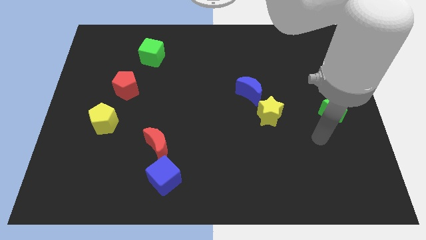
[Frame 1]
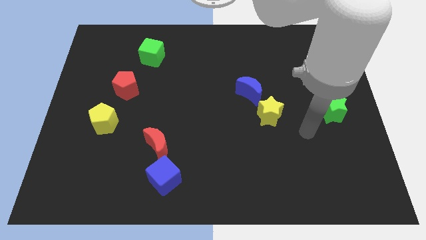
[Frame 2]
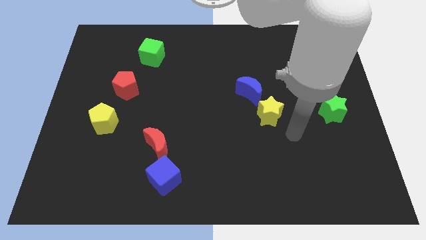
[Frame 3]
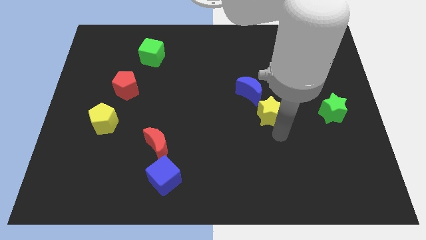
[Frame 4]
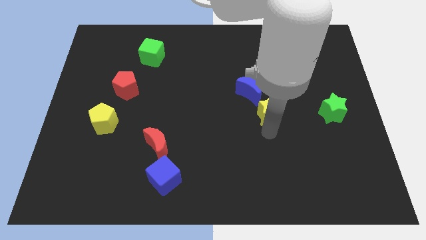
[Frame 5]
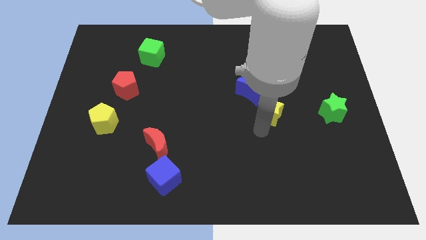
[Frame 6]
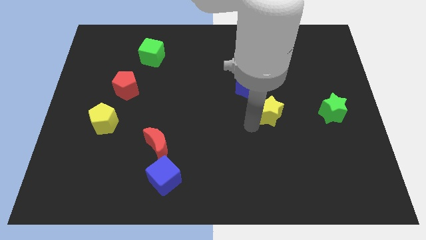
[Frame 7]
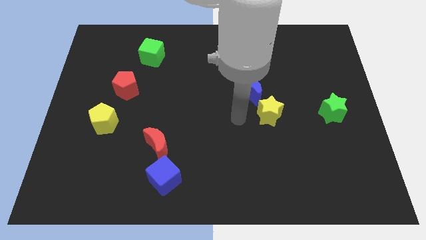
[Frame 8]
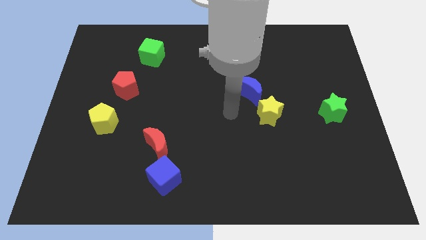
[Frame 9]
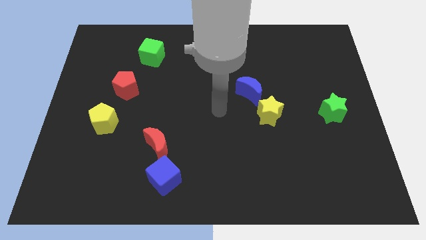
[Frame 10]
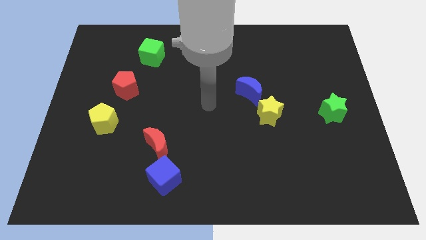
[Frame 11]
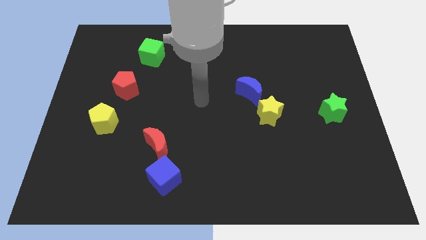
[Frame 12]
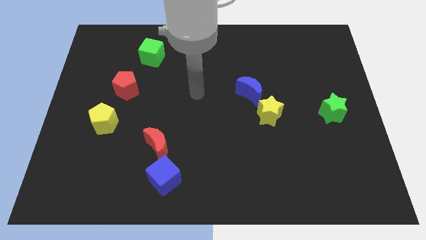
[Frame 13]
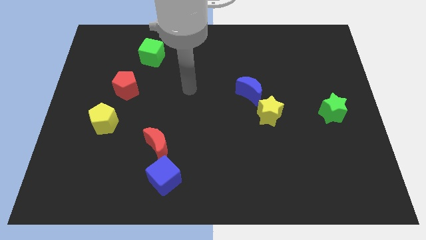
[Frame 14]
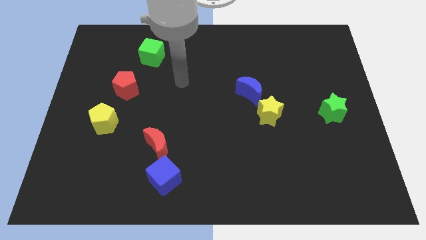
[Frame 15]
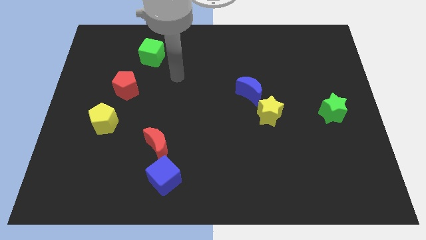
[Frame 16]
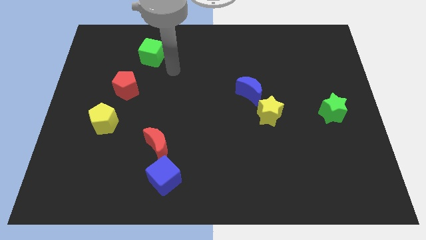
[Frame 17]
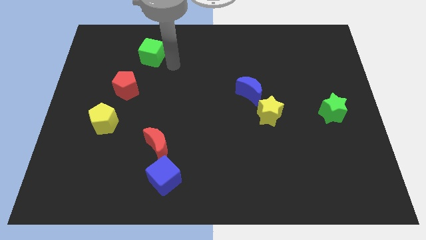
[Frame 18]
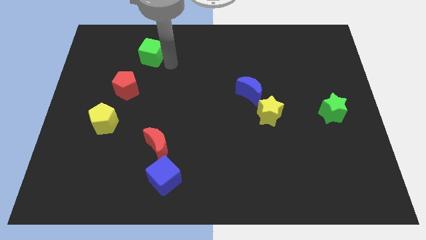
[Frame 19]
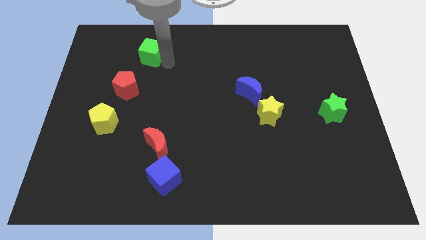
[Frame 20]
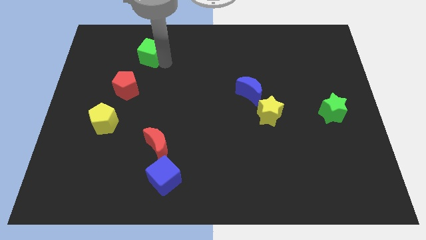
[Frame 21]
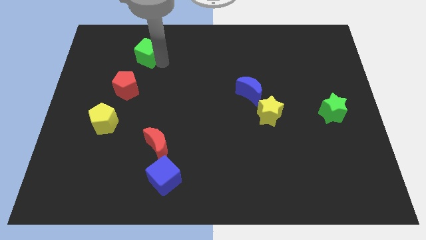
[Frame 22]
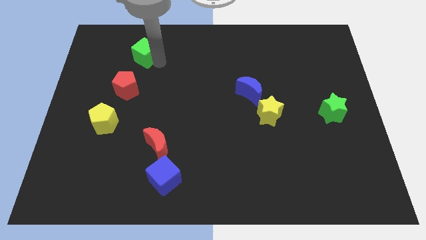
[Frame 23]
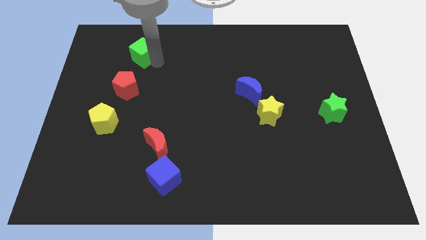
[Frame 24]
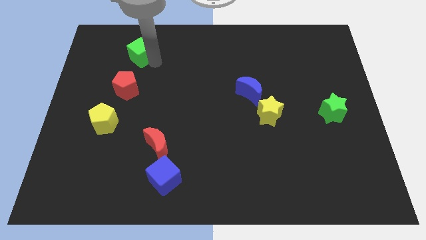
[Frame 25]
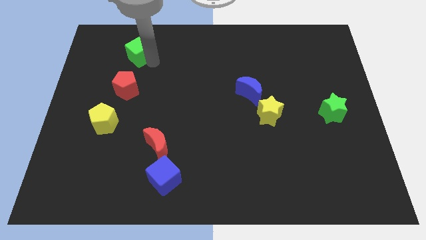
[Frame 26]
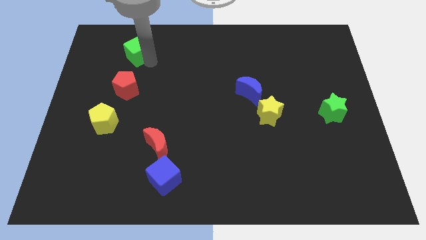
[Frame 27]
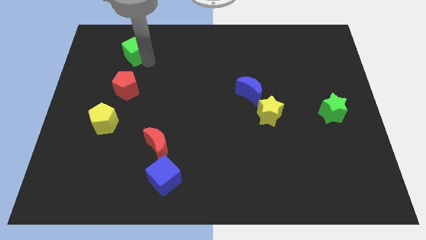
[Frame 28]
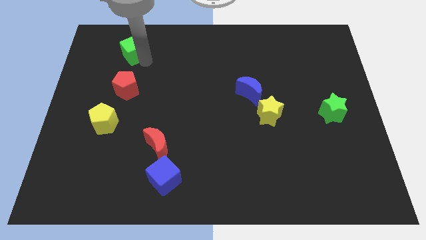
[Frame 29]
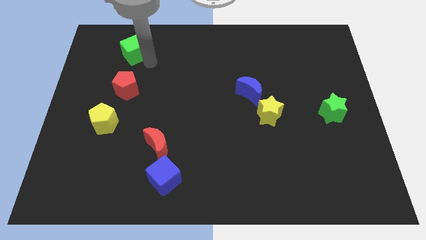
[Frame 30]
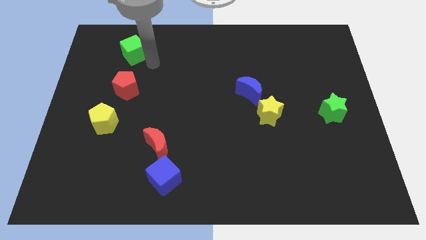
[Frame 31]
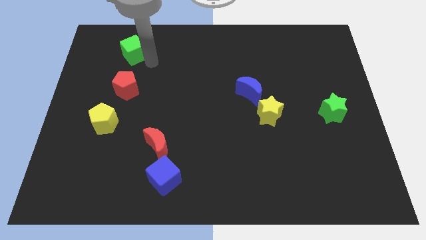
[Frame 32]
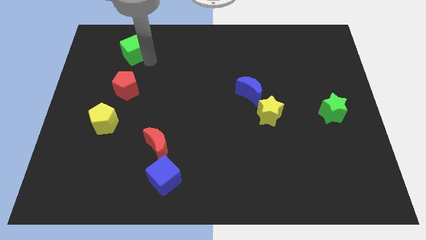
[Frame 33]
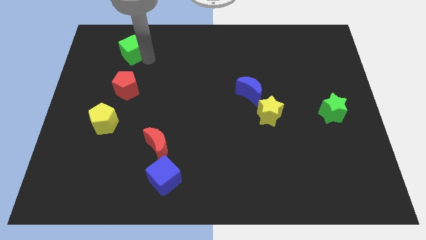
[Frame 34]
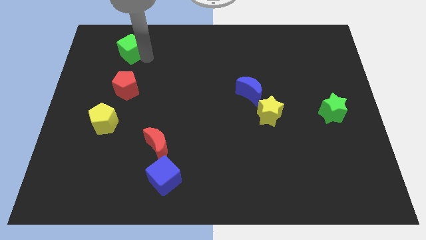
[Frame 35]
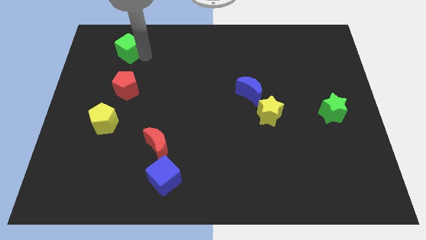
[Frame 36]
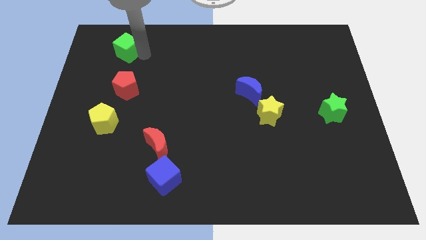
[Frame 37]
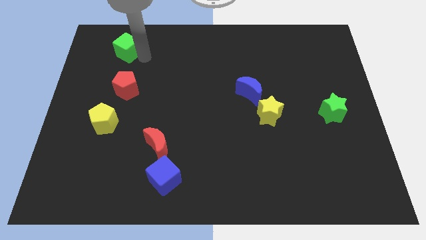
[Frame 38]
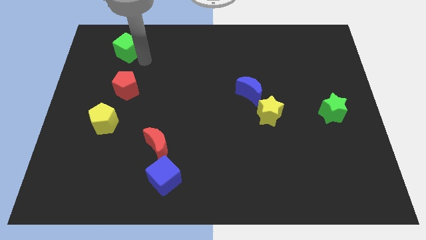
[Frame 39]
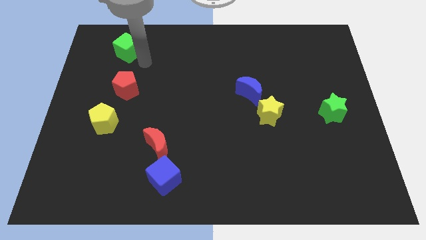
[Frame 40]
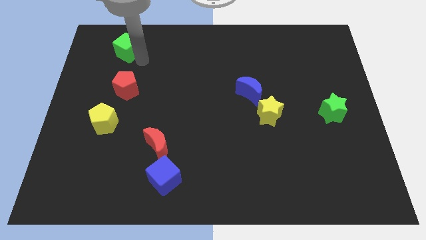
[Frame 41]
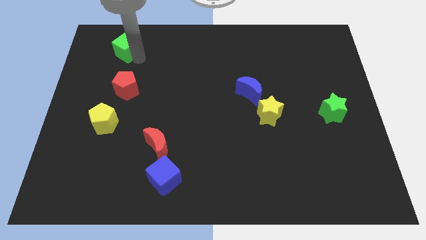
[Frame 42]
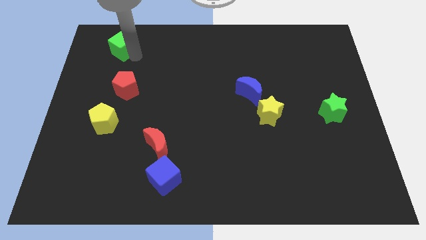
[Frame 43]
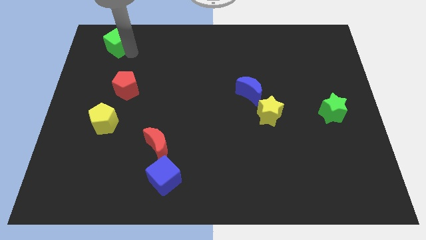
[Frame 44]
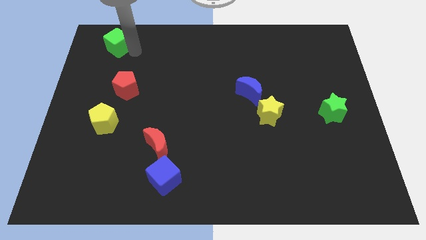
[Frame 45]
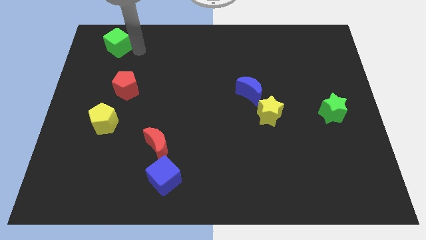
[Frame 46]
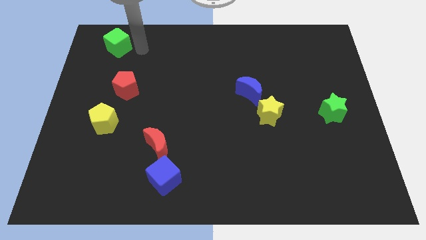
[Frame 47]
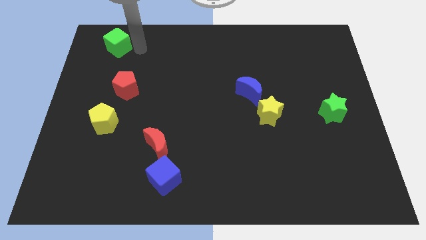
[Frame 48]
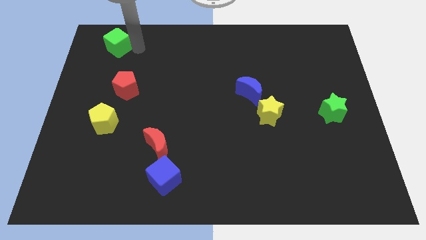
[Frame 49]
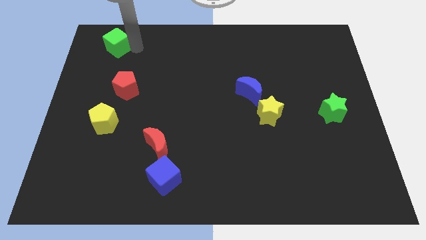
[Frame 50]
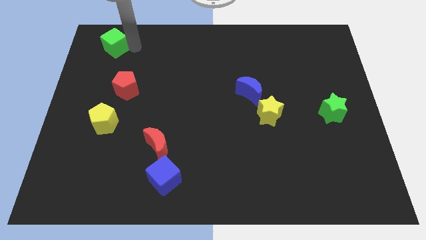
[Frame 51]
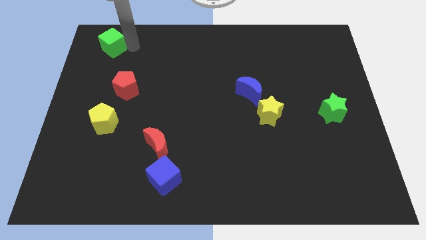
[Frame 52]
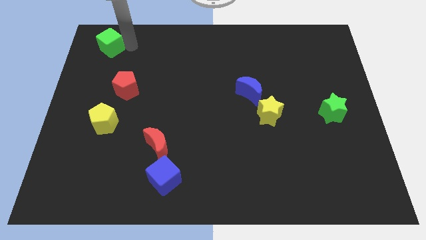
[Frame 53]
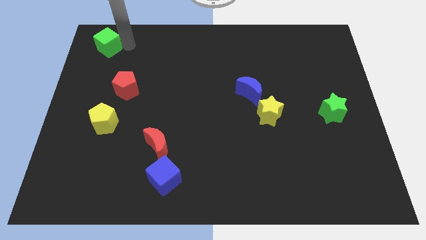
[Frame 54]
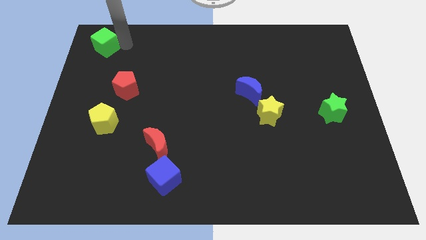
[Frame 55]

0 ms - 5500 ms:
push the green cube to the top left of the board
